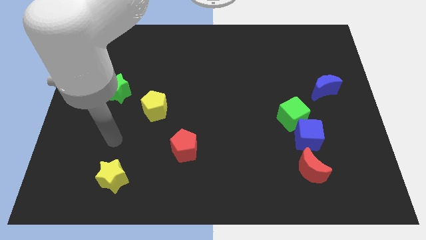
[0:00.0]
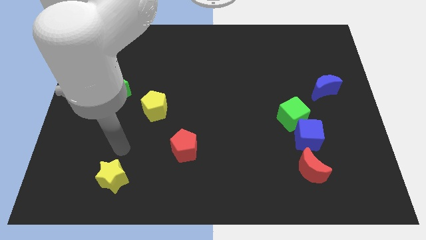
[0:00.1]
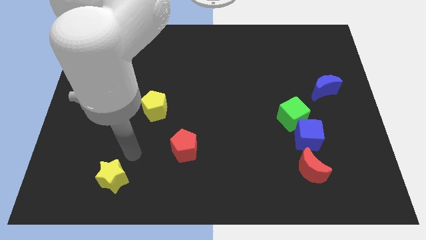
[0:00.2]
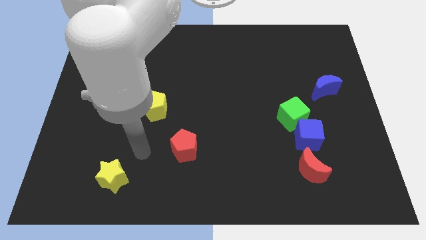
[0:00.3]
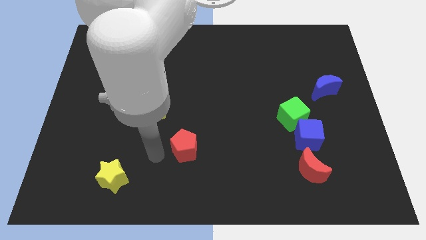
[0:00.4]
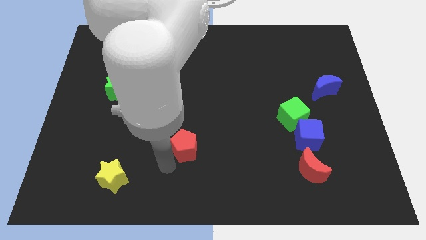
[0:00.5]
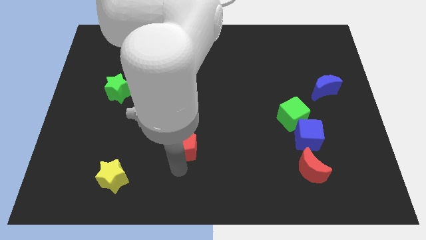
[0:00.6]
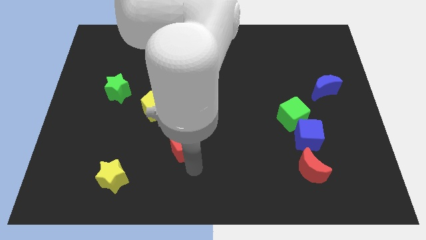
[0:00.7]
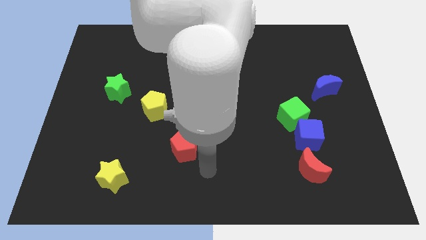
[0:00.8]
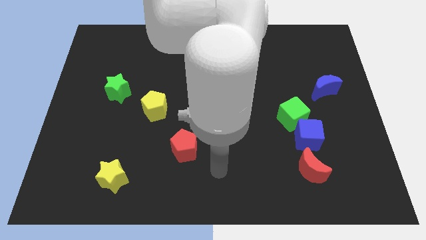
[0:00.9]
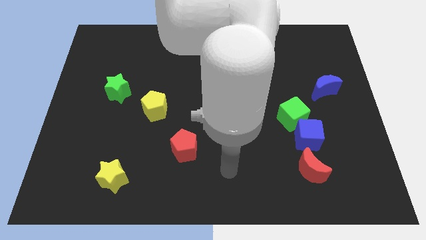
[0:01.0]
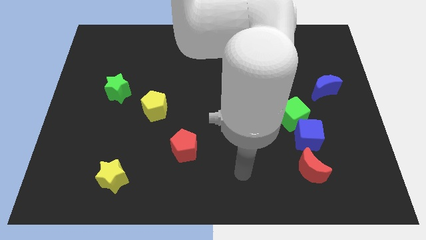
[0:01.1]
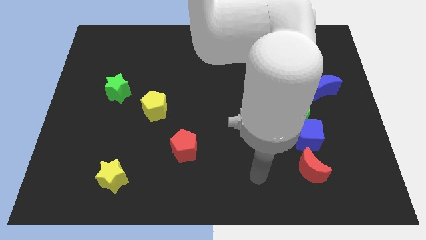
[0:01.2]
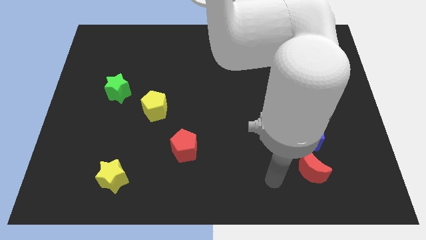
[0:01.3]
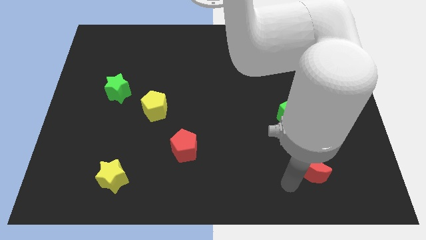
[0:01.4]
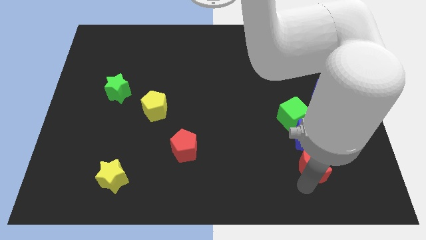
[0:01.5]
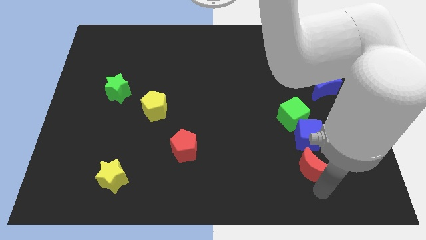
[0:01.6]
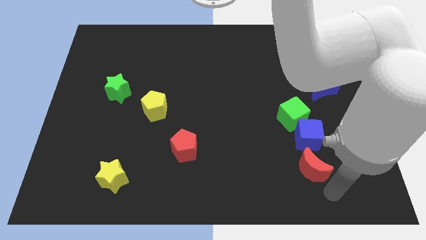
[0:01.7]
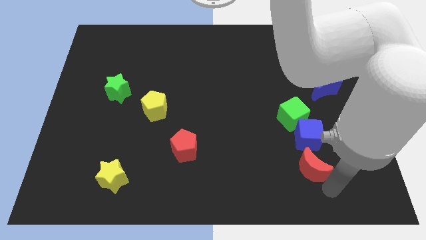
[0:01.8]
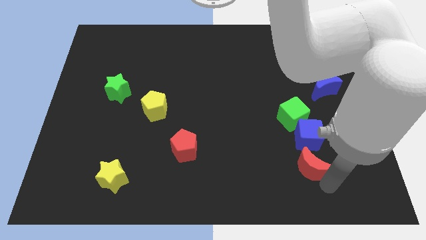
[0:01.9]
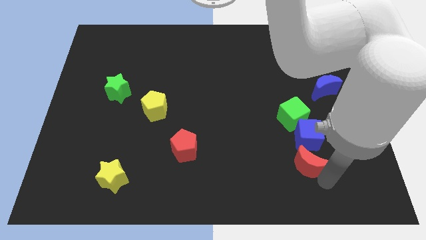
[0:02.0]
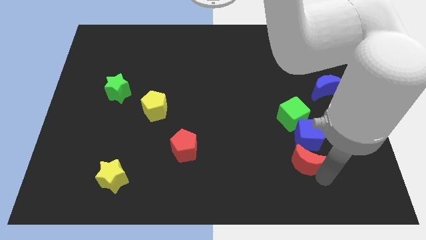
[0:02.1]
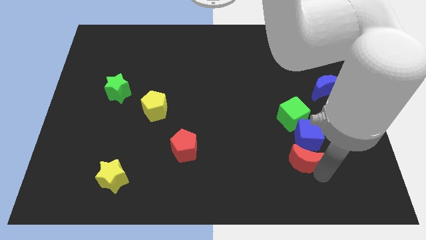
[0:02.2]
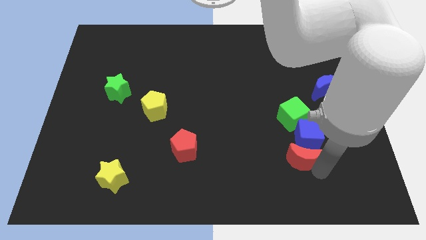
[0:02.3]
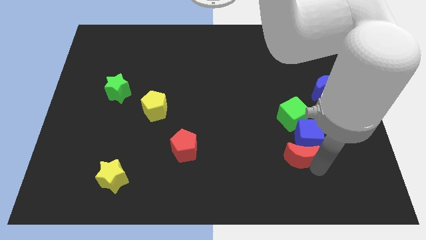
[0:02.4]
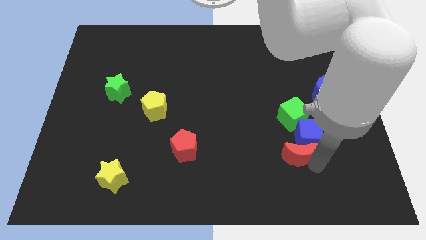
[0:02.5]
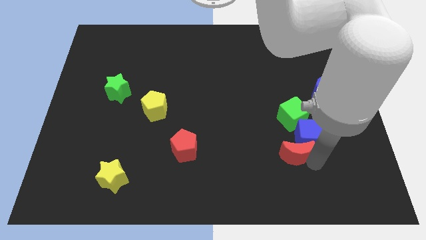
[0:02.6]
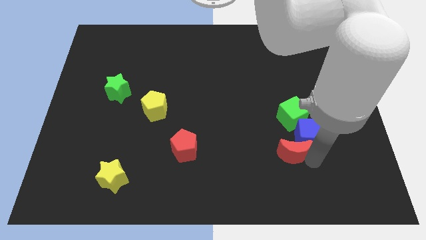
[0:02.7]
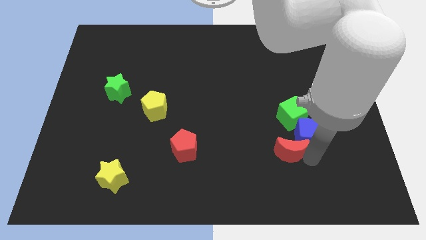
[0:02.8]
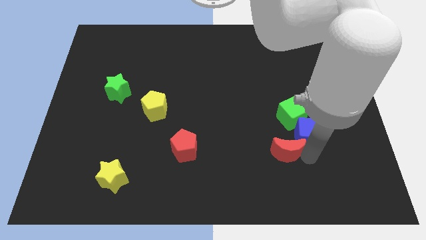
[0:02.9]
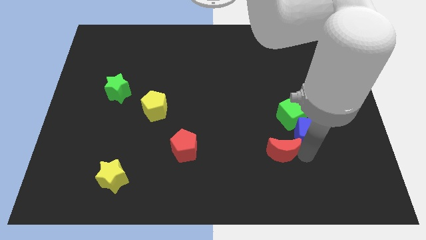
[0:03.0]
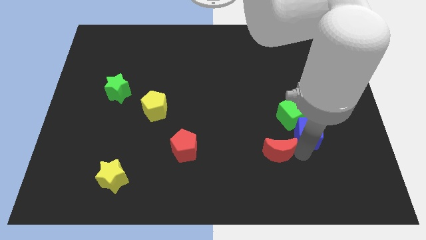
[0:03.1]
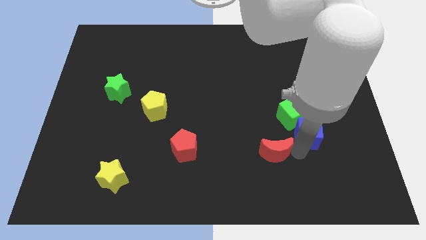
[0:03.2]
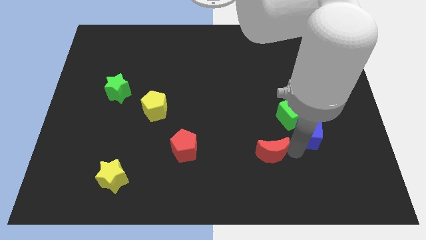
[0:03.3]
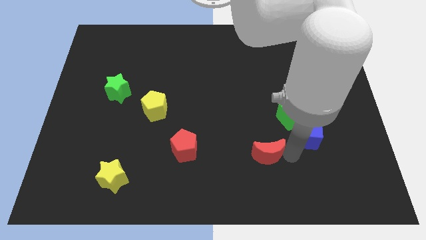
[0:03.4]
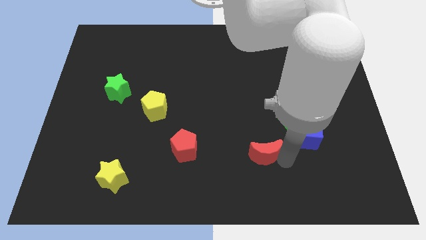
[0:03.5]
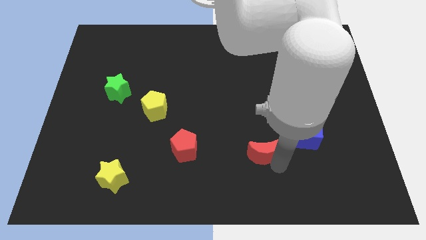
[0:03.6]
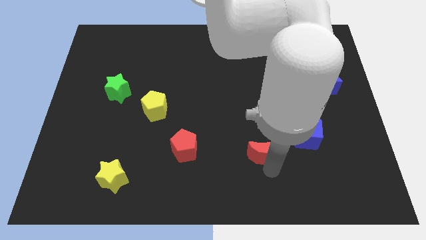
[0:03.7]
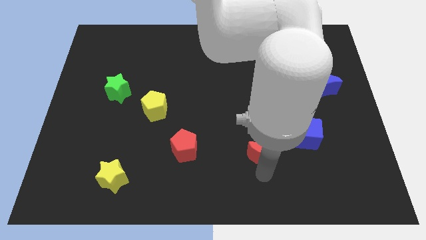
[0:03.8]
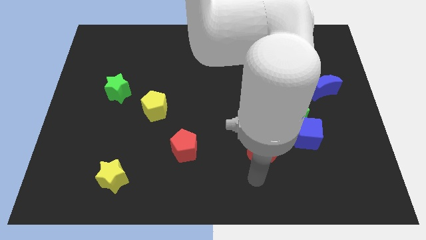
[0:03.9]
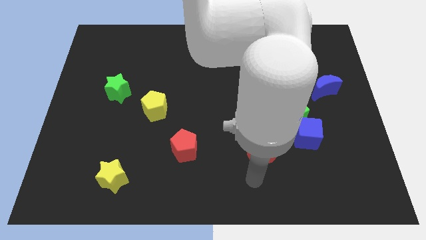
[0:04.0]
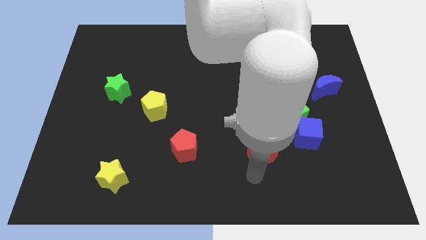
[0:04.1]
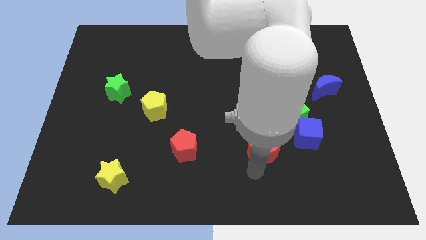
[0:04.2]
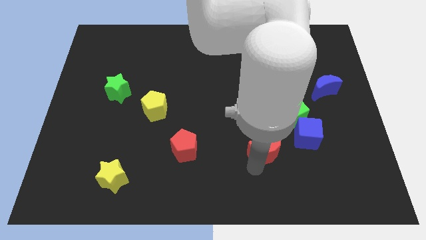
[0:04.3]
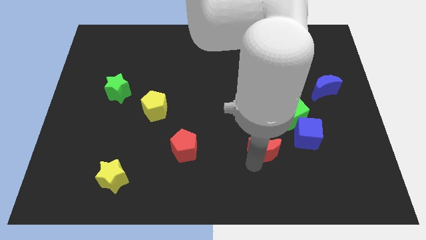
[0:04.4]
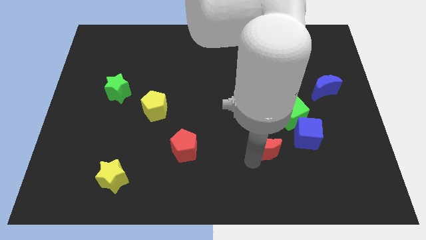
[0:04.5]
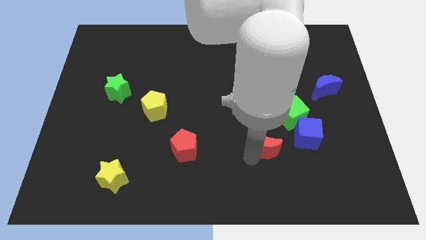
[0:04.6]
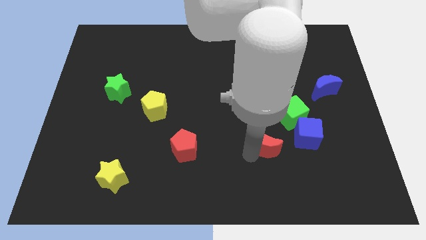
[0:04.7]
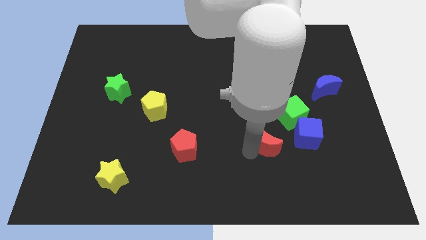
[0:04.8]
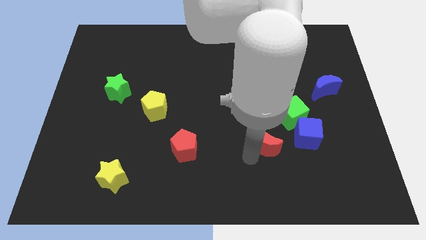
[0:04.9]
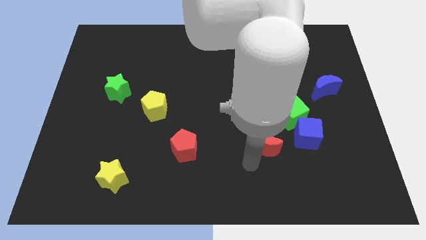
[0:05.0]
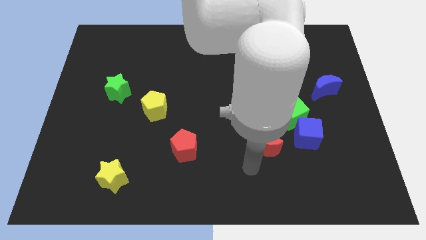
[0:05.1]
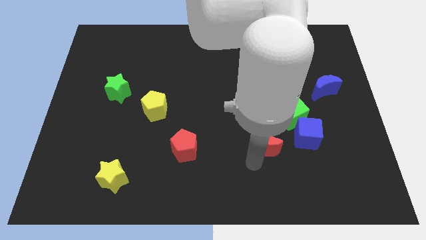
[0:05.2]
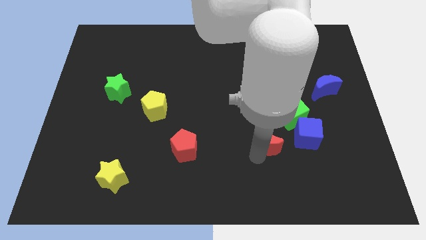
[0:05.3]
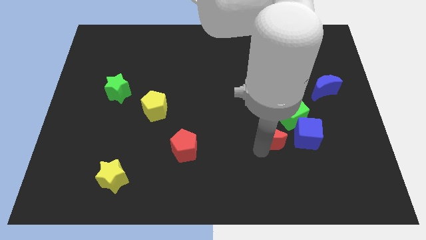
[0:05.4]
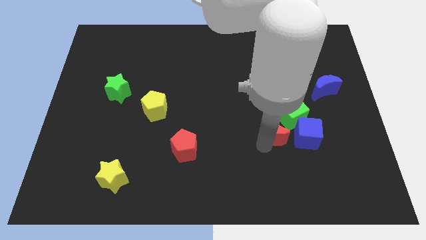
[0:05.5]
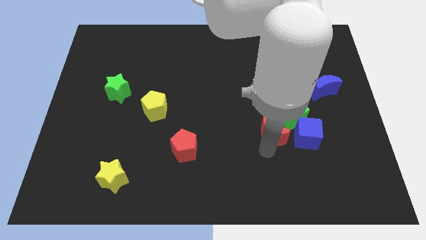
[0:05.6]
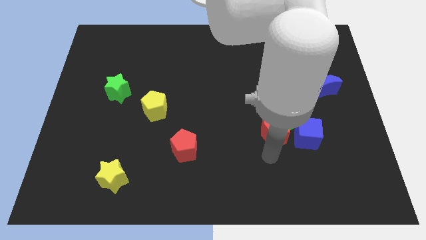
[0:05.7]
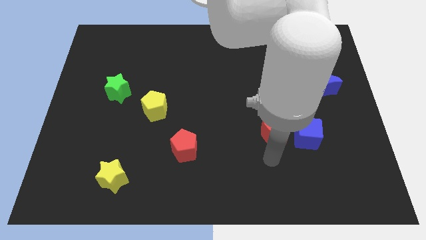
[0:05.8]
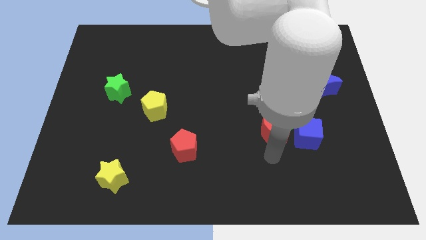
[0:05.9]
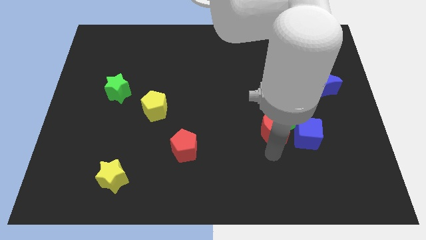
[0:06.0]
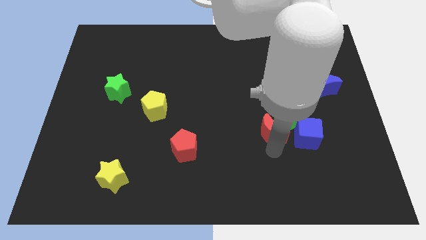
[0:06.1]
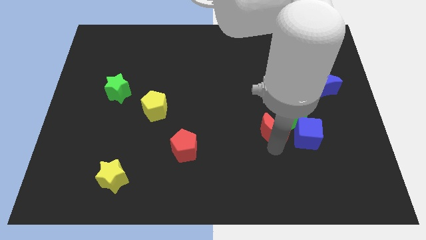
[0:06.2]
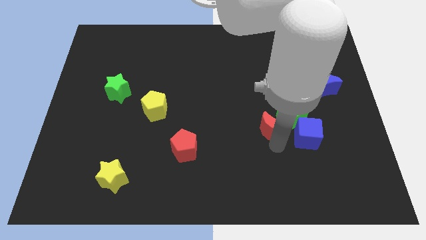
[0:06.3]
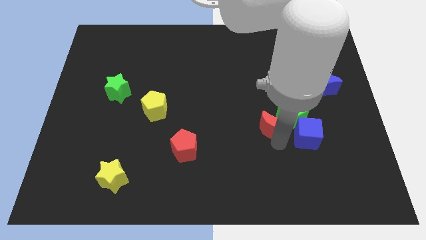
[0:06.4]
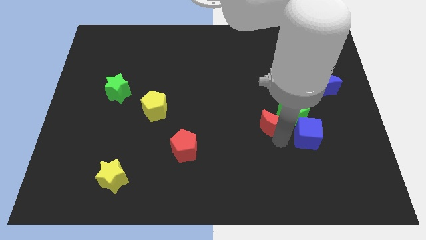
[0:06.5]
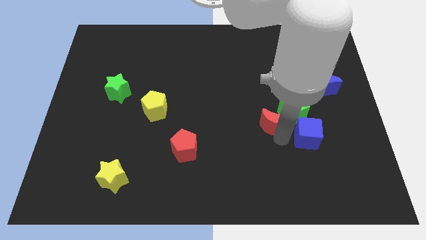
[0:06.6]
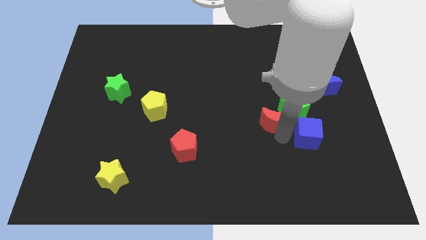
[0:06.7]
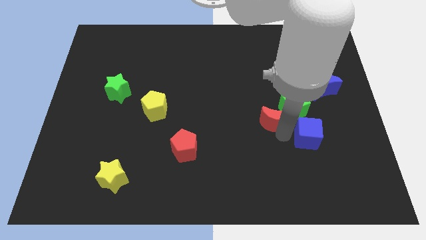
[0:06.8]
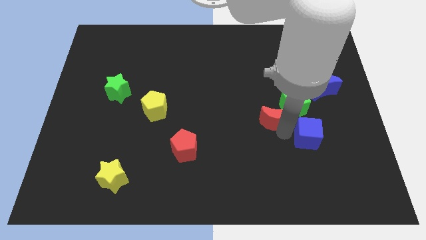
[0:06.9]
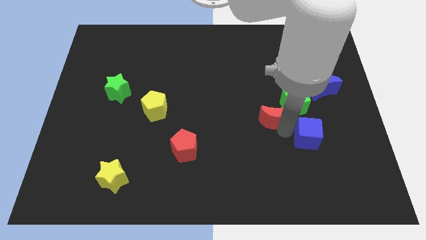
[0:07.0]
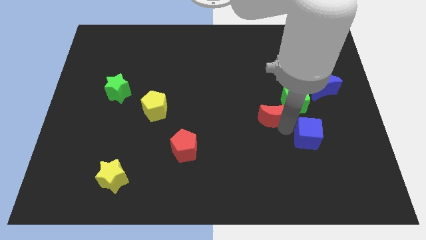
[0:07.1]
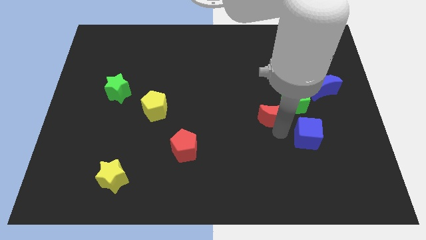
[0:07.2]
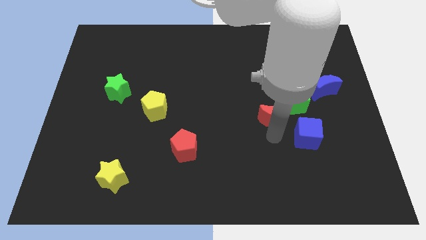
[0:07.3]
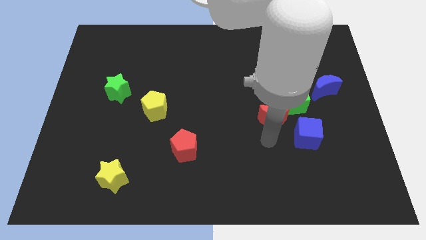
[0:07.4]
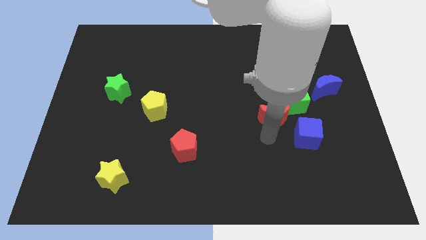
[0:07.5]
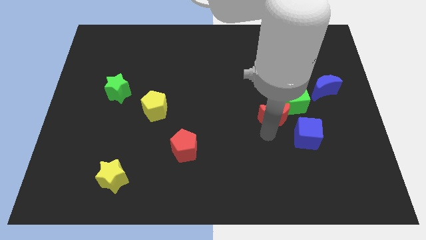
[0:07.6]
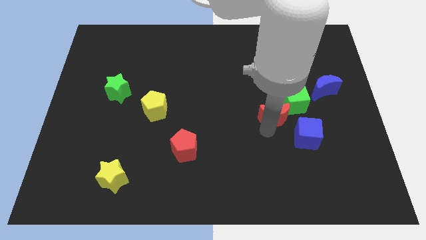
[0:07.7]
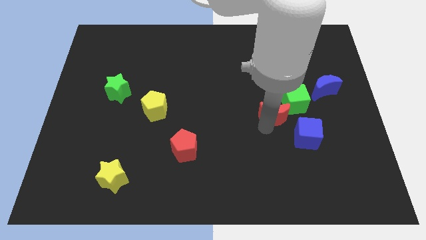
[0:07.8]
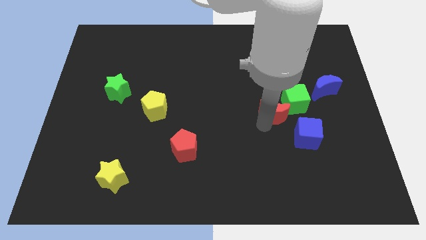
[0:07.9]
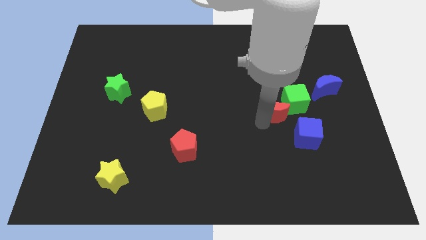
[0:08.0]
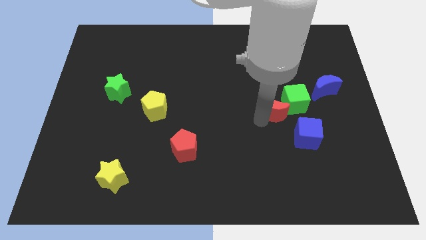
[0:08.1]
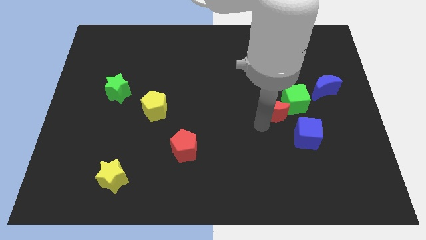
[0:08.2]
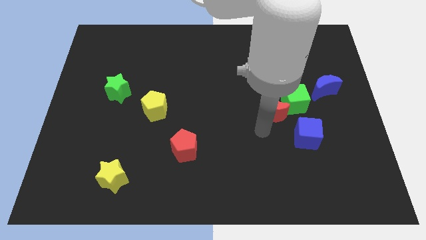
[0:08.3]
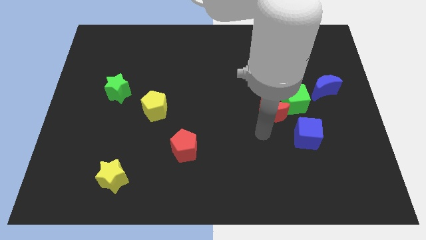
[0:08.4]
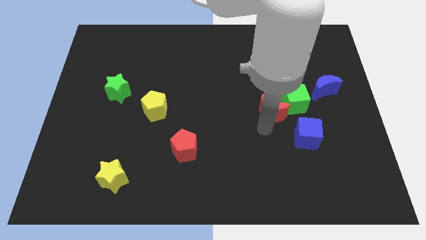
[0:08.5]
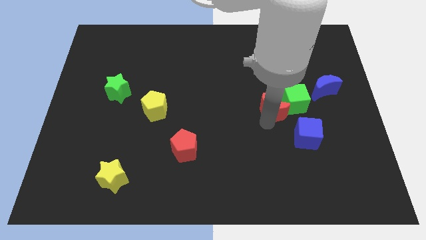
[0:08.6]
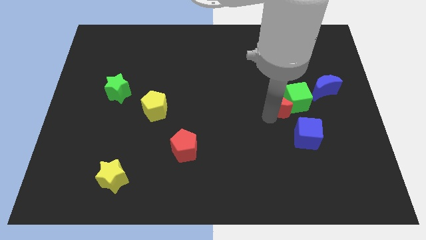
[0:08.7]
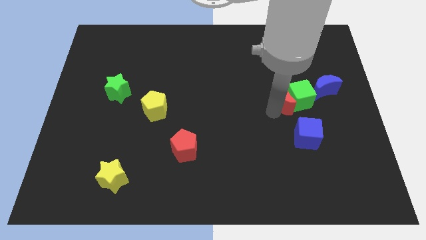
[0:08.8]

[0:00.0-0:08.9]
slide the red moon left of the blue moon
